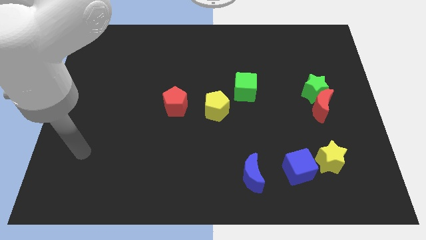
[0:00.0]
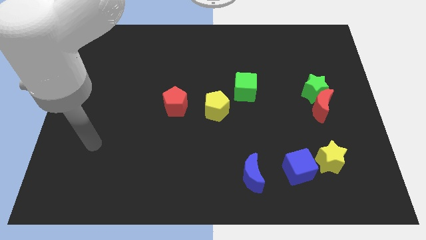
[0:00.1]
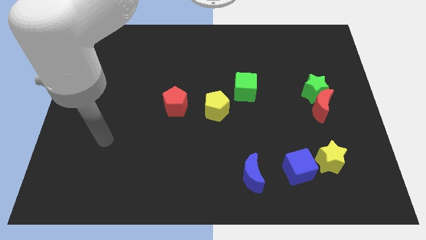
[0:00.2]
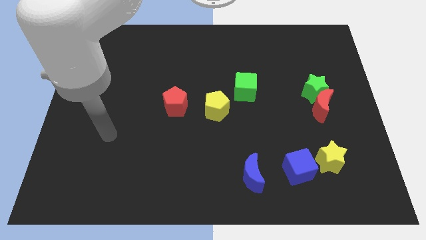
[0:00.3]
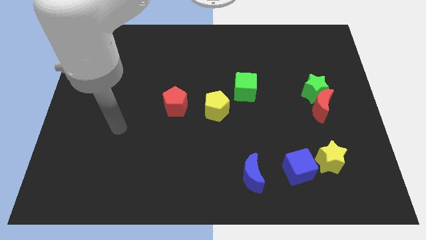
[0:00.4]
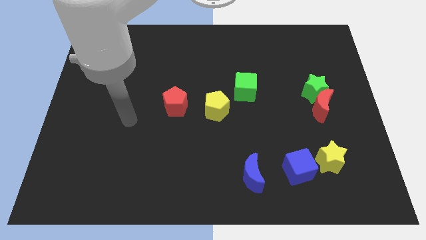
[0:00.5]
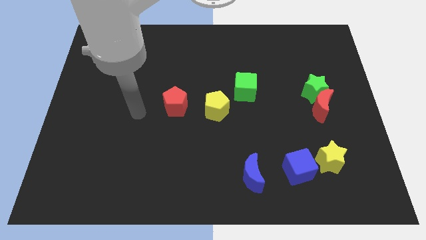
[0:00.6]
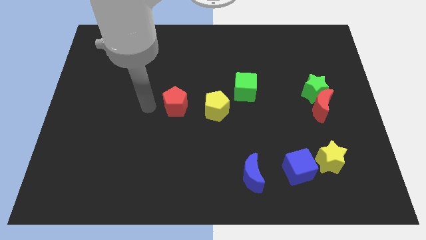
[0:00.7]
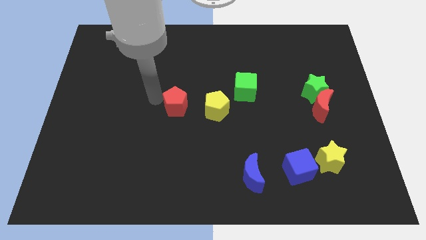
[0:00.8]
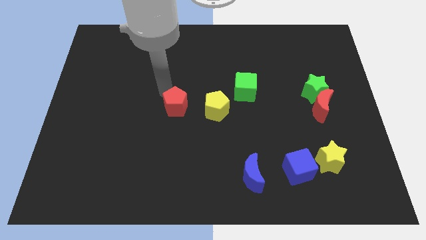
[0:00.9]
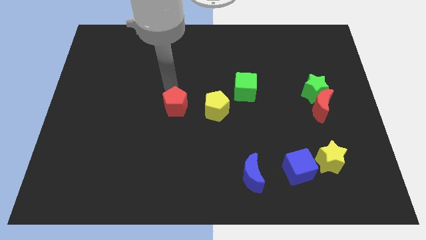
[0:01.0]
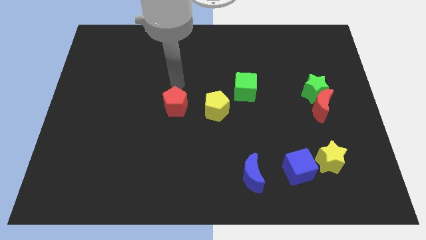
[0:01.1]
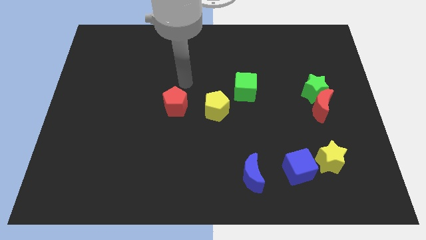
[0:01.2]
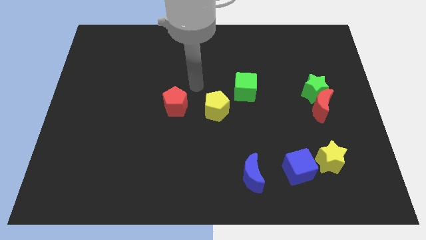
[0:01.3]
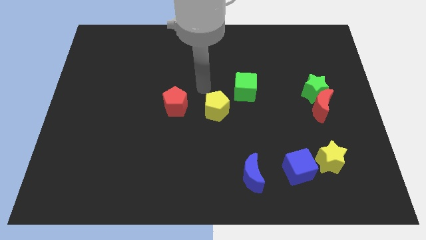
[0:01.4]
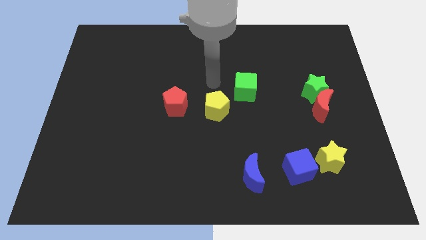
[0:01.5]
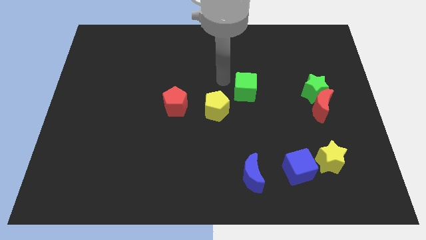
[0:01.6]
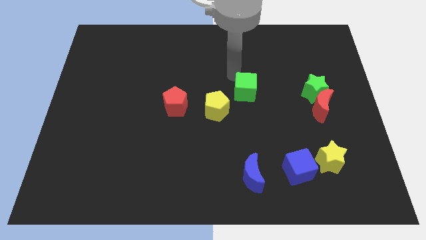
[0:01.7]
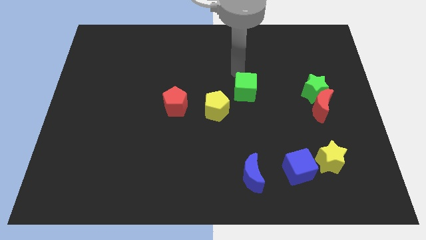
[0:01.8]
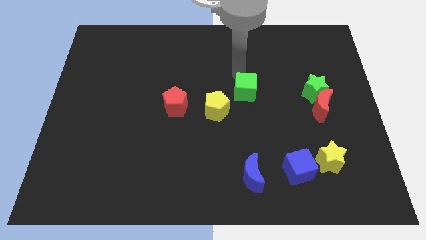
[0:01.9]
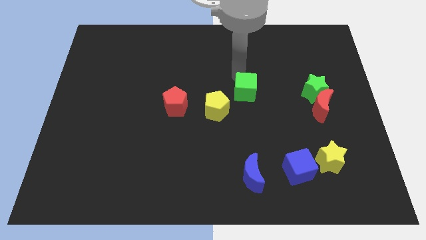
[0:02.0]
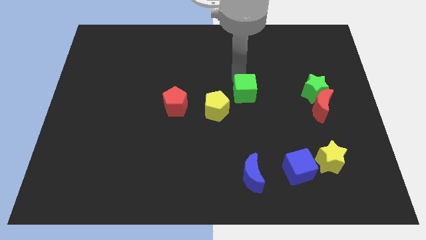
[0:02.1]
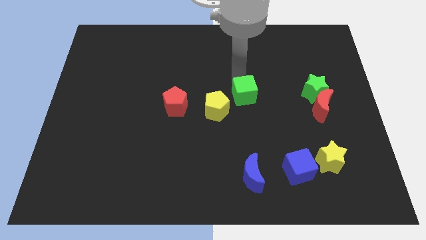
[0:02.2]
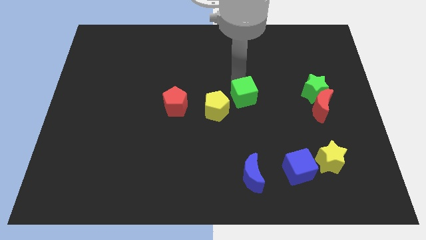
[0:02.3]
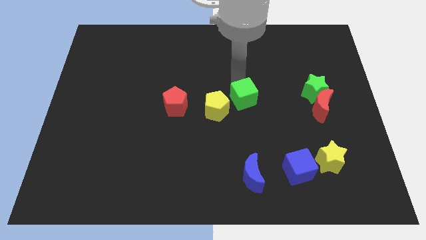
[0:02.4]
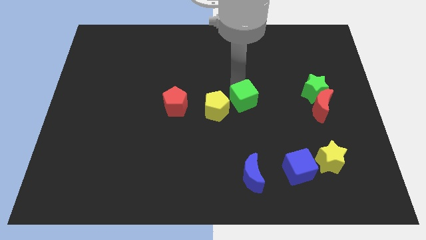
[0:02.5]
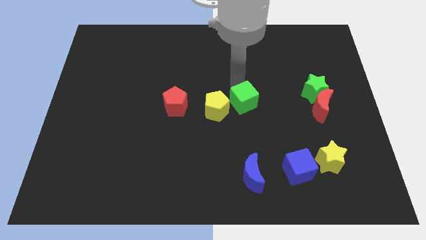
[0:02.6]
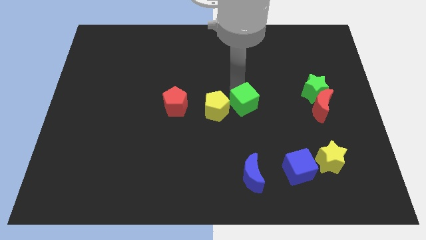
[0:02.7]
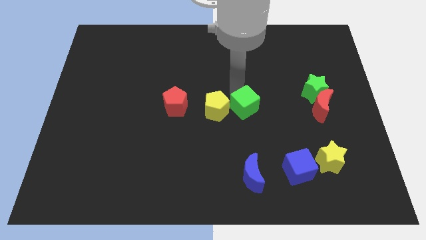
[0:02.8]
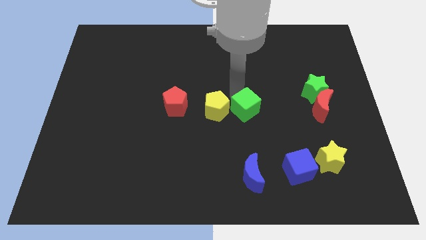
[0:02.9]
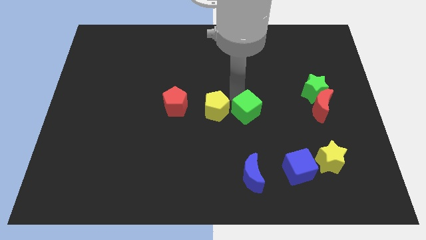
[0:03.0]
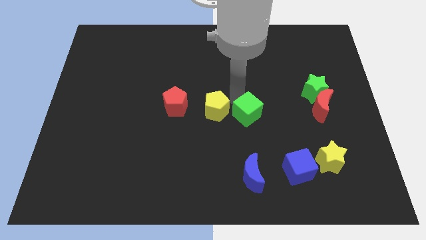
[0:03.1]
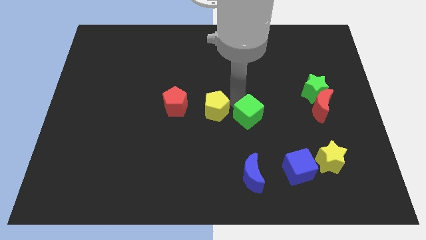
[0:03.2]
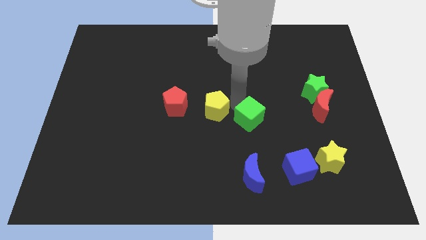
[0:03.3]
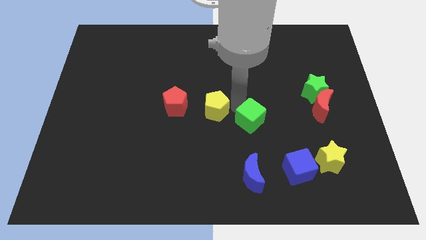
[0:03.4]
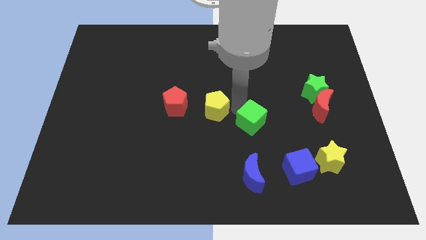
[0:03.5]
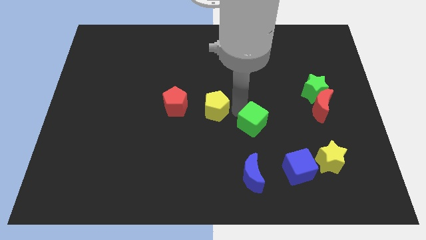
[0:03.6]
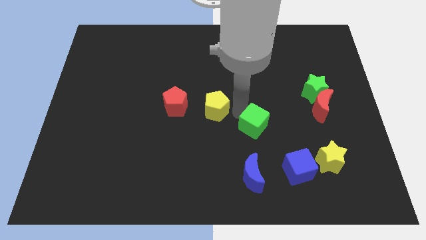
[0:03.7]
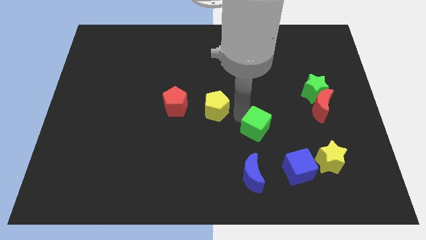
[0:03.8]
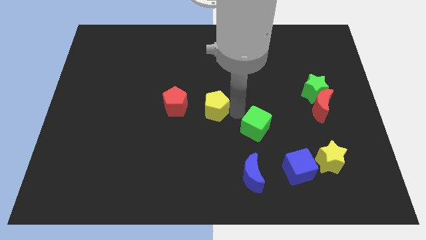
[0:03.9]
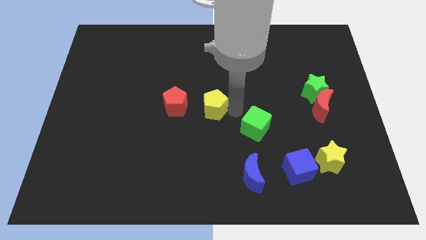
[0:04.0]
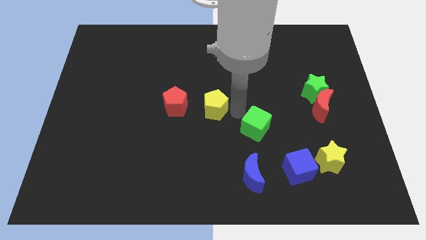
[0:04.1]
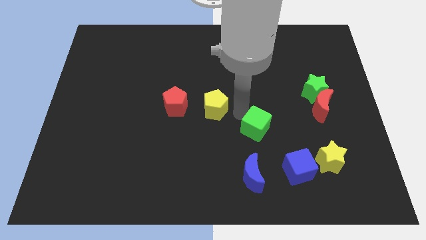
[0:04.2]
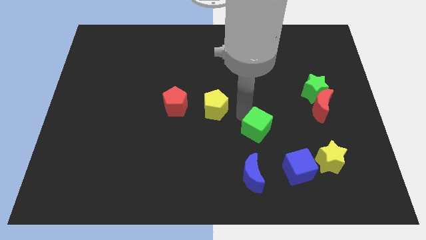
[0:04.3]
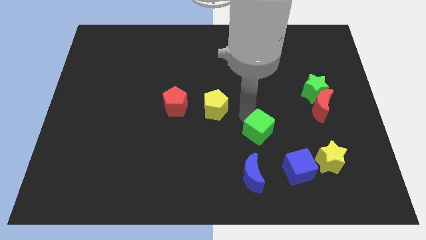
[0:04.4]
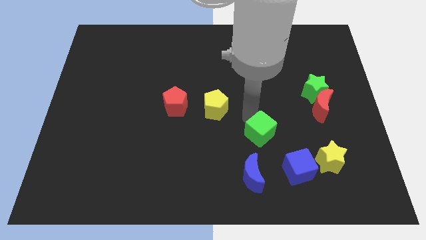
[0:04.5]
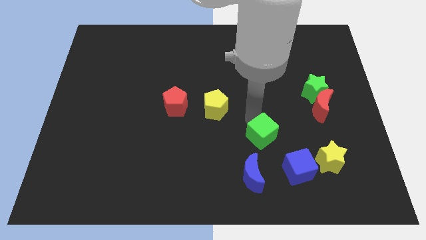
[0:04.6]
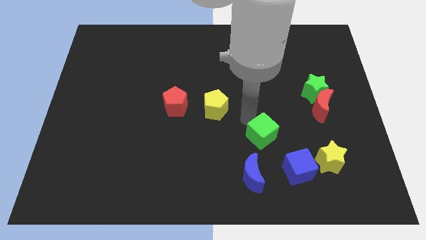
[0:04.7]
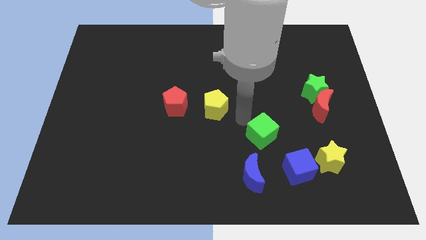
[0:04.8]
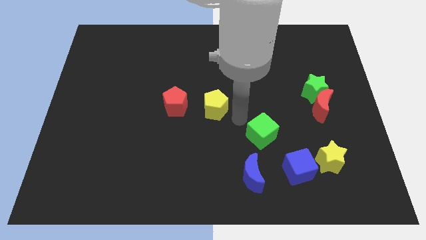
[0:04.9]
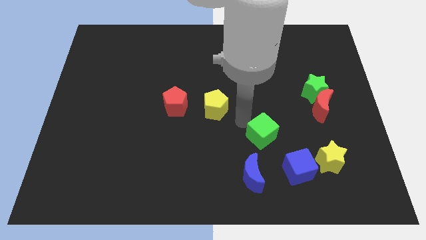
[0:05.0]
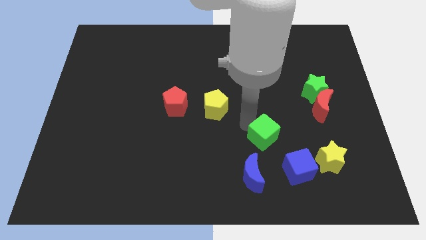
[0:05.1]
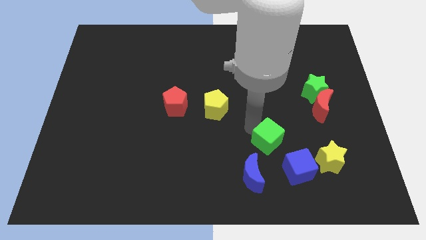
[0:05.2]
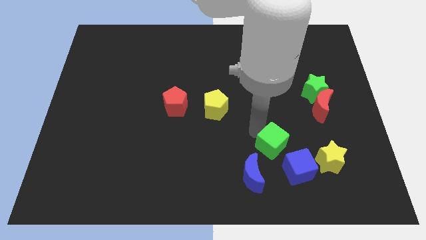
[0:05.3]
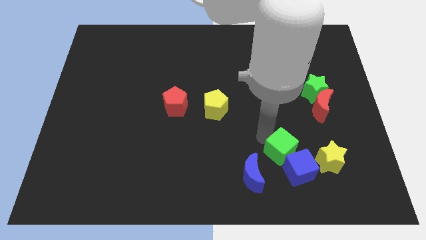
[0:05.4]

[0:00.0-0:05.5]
slide the green cube next to the blue cube

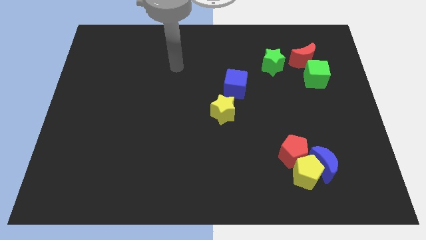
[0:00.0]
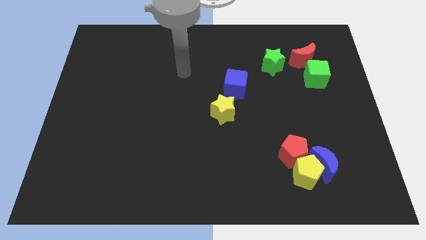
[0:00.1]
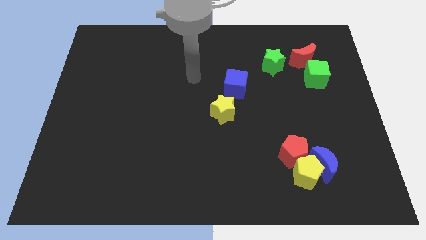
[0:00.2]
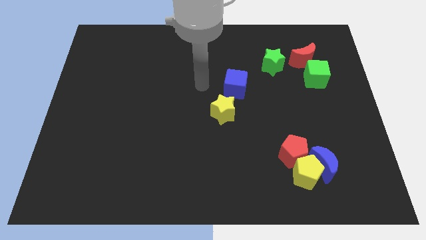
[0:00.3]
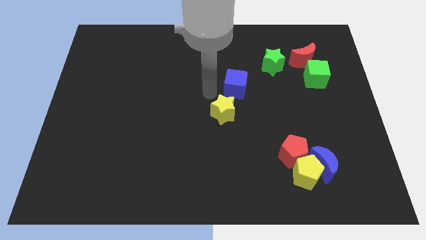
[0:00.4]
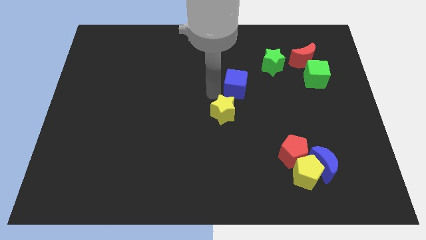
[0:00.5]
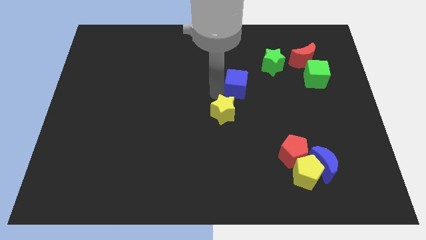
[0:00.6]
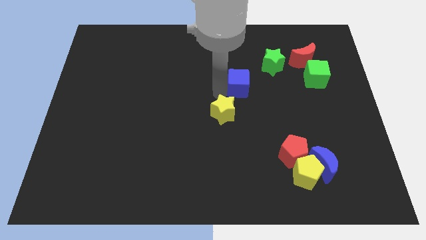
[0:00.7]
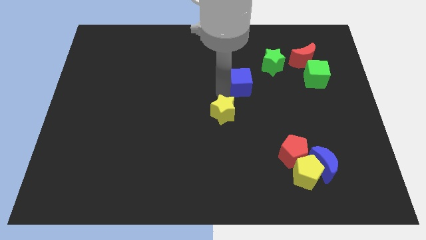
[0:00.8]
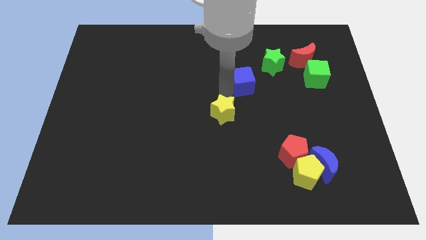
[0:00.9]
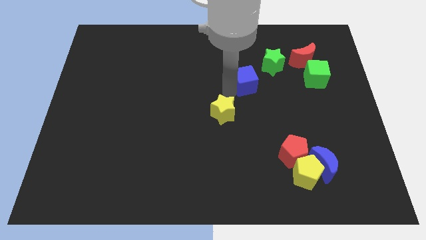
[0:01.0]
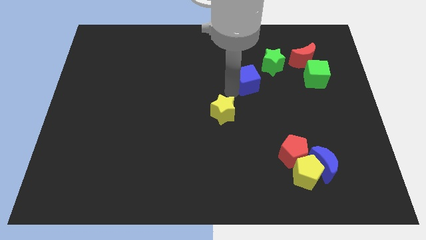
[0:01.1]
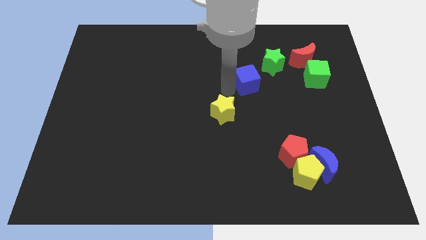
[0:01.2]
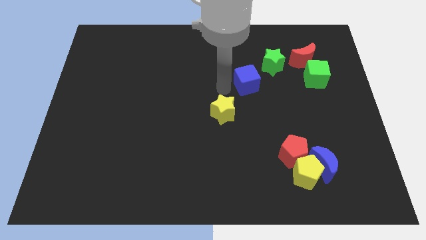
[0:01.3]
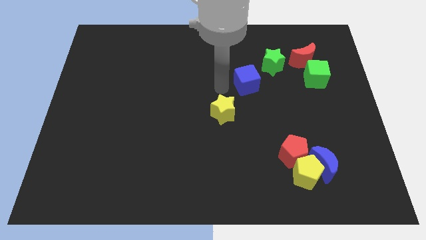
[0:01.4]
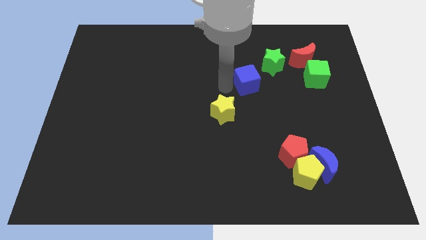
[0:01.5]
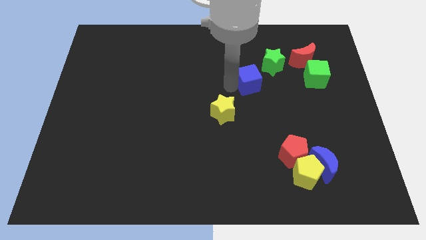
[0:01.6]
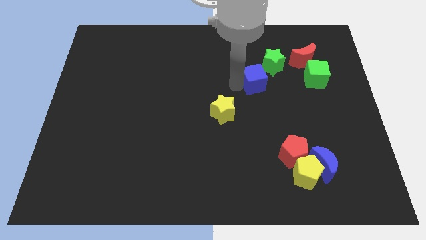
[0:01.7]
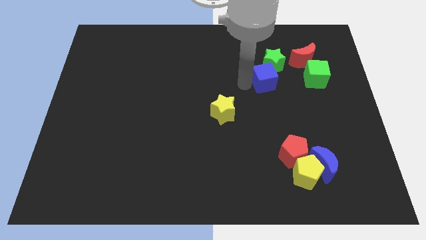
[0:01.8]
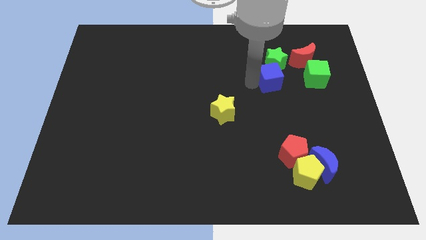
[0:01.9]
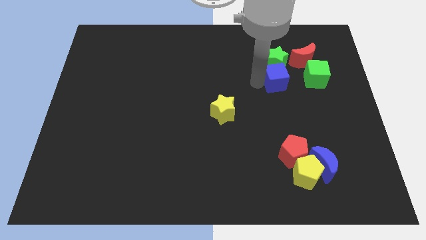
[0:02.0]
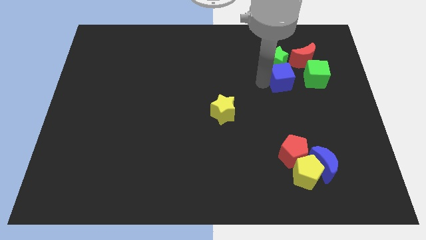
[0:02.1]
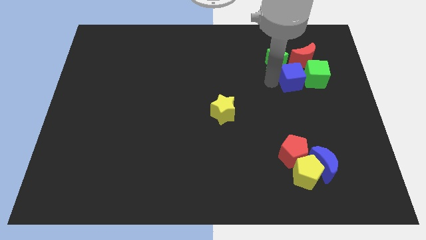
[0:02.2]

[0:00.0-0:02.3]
push the blue cube to the green cube
